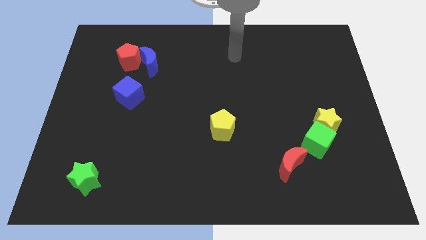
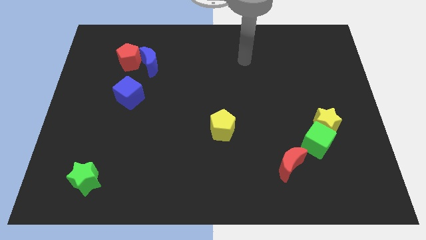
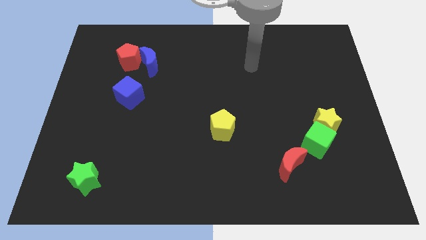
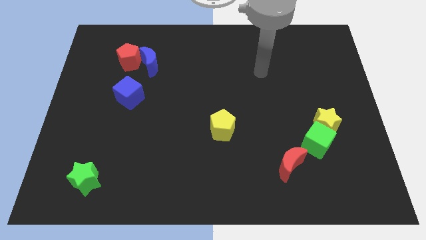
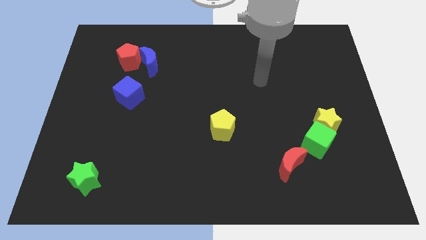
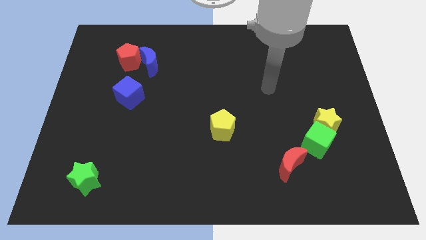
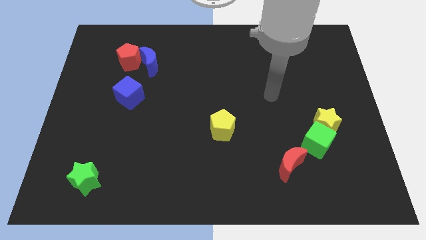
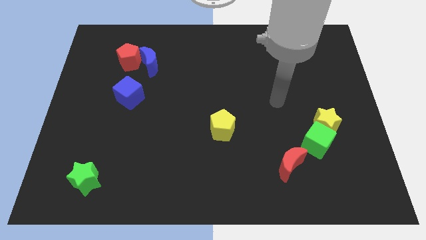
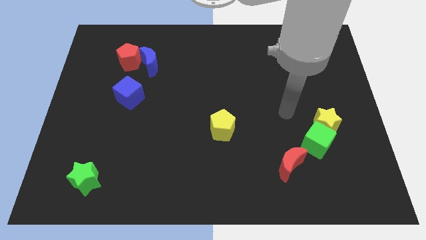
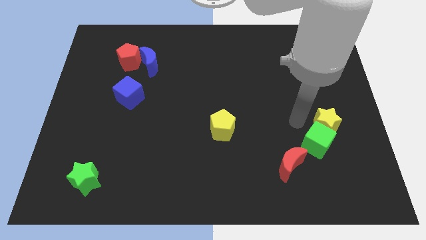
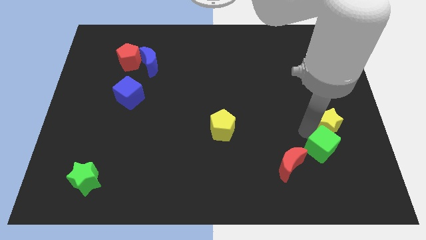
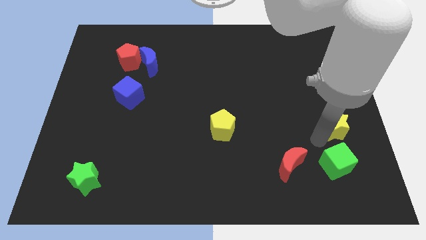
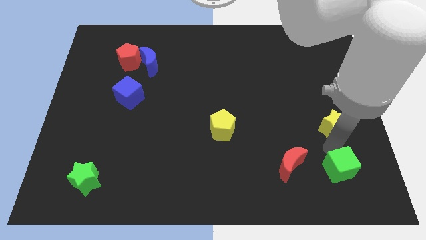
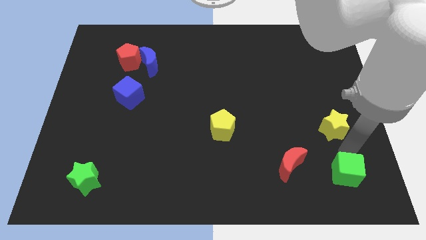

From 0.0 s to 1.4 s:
separate the yellow star from the green cube

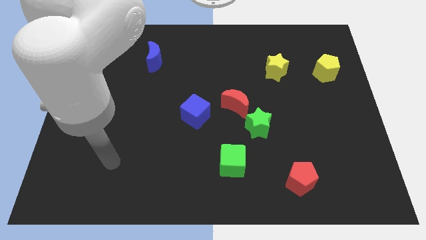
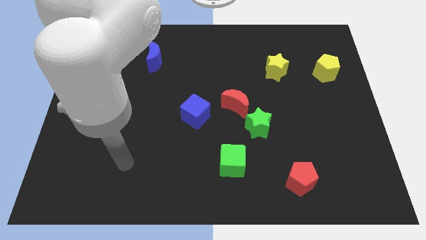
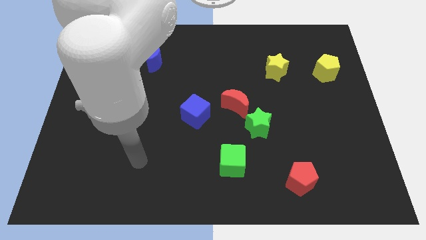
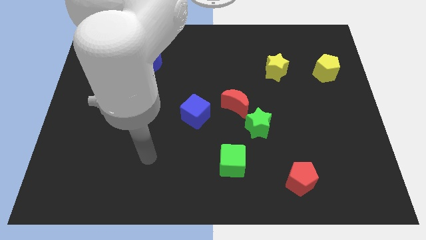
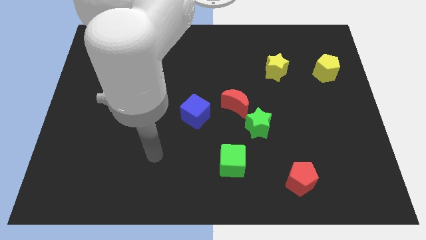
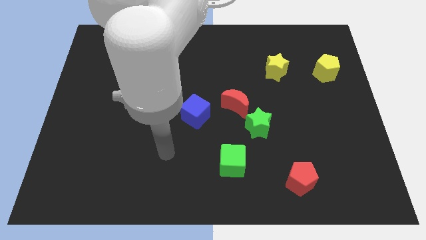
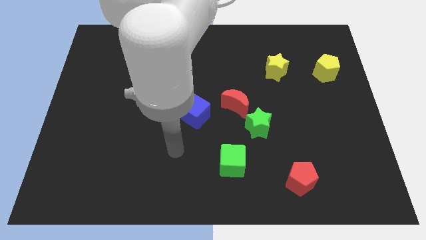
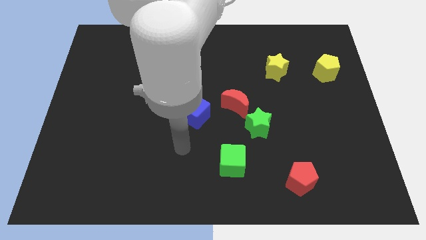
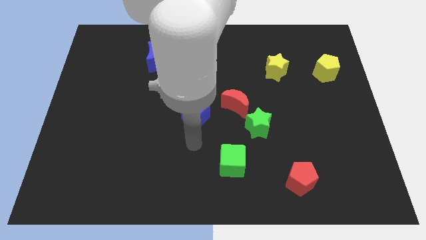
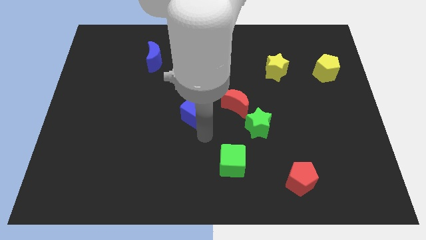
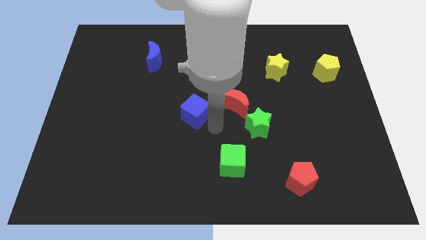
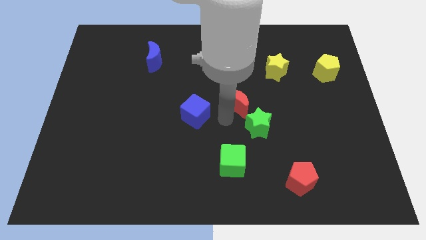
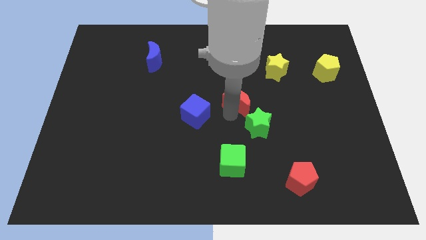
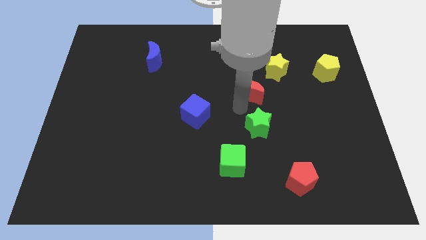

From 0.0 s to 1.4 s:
separate the green star from the red moon

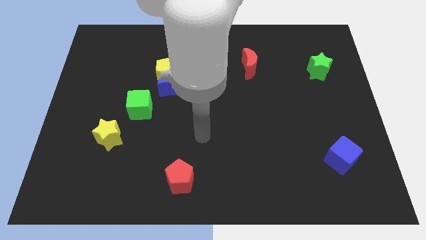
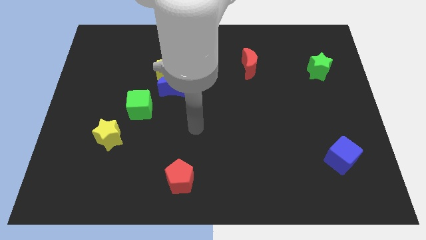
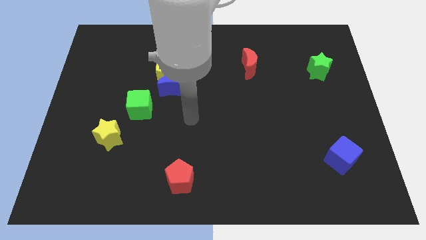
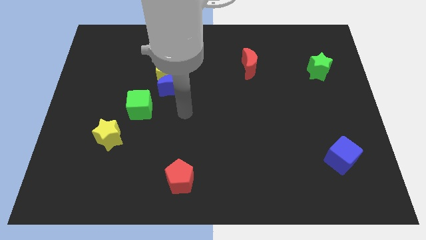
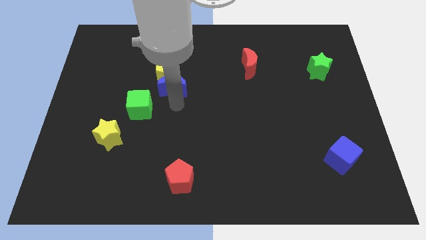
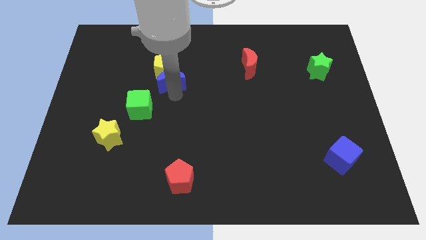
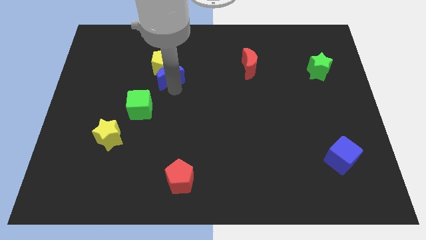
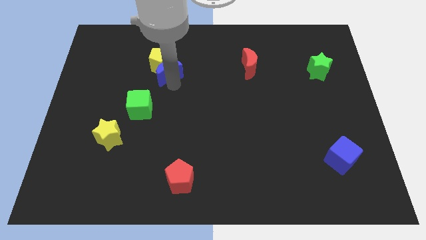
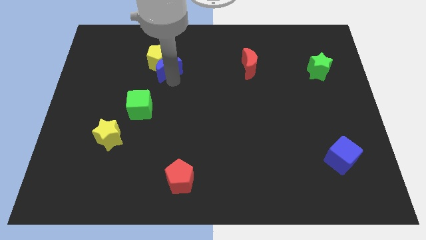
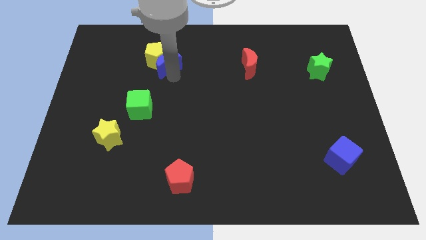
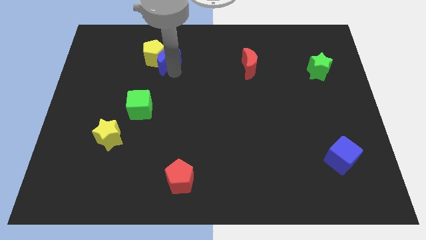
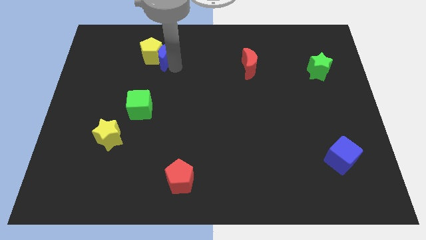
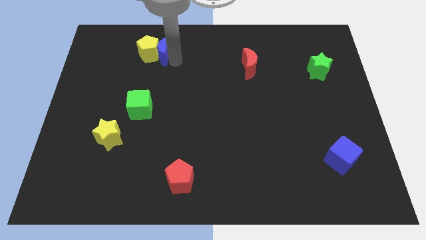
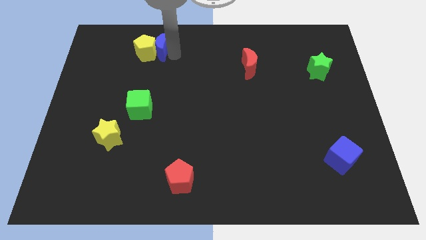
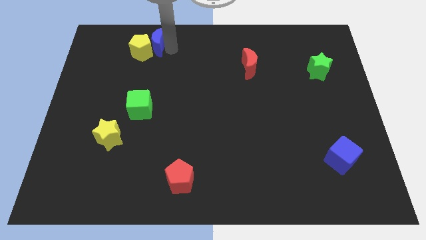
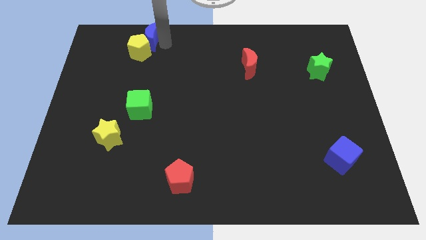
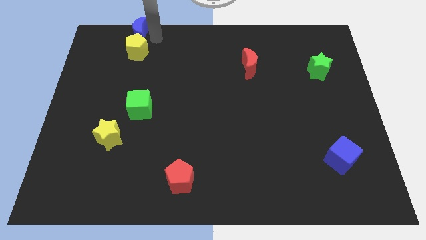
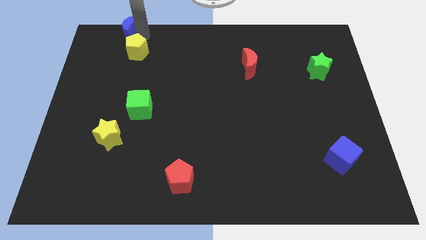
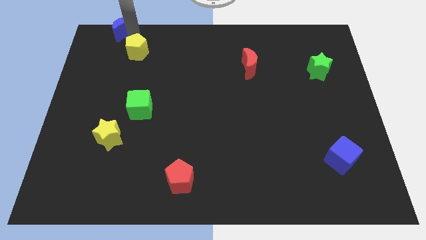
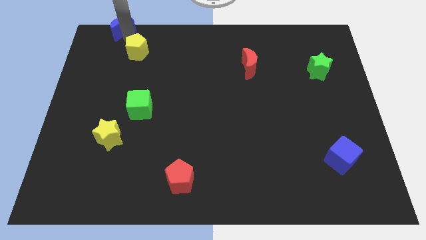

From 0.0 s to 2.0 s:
separate the yellow pentagon from the blue moon

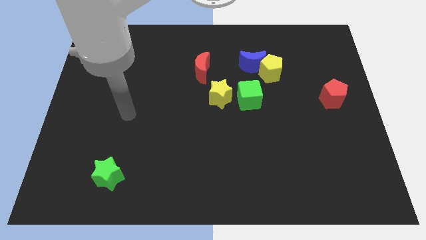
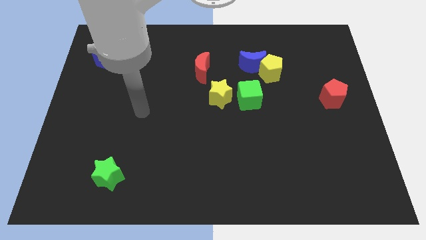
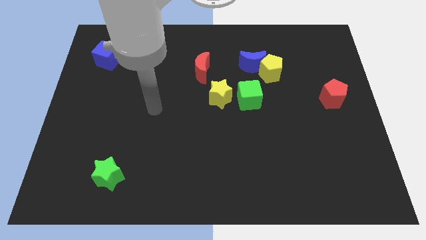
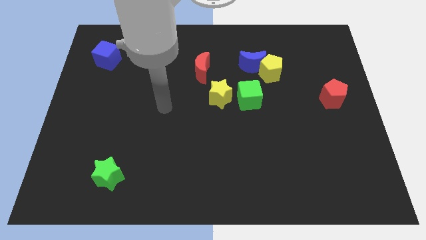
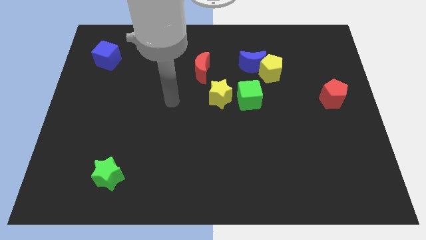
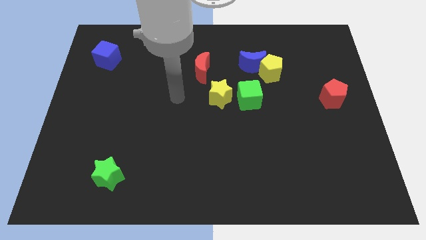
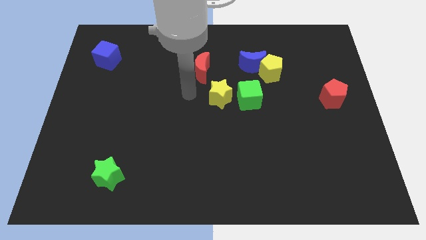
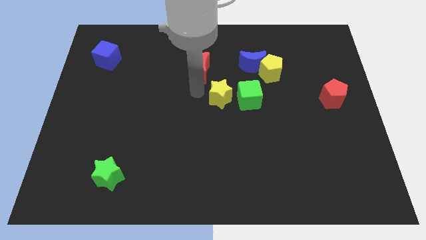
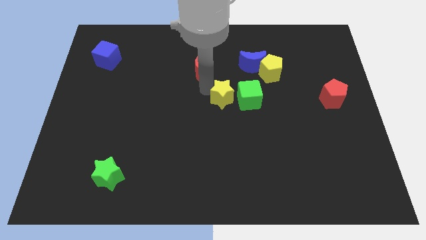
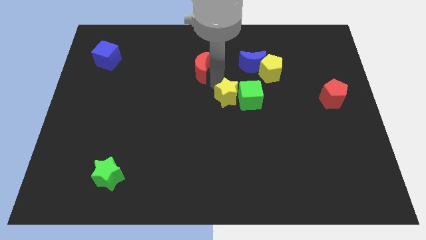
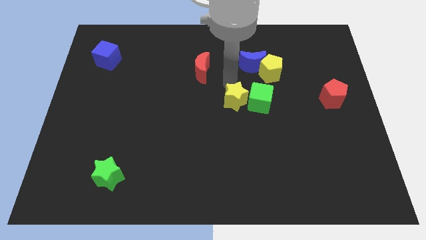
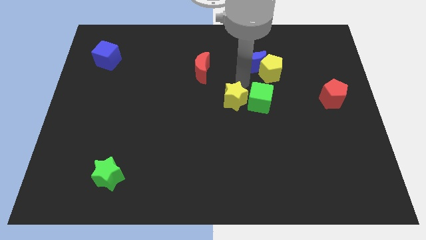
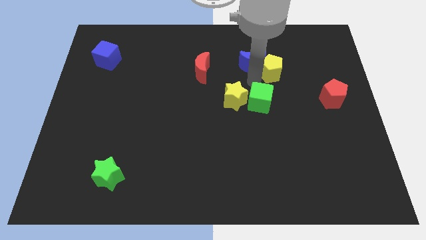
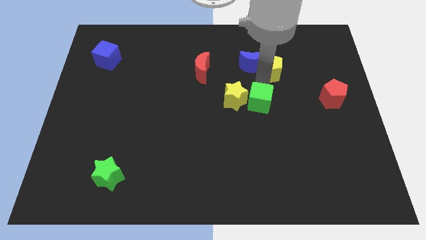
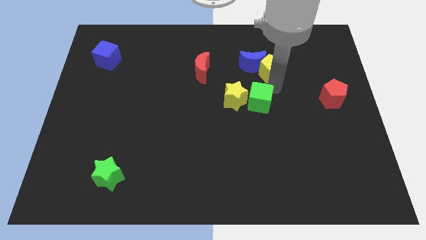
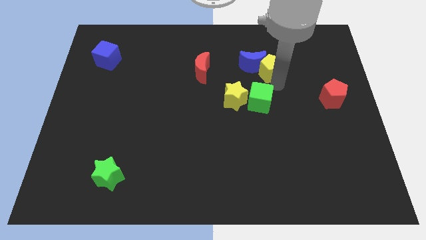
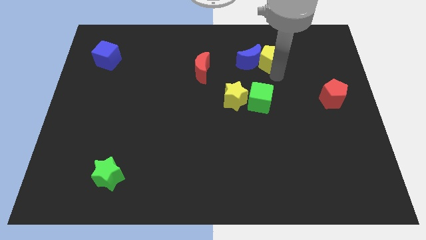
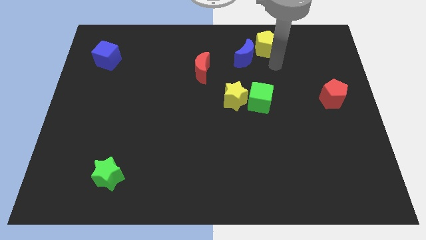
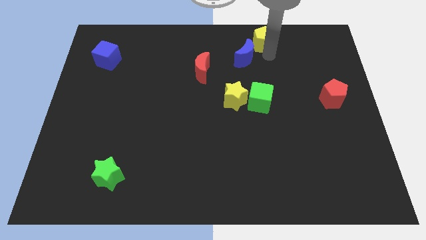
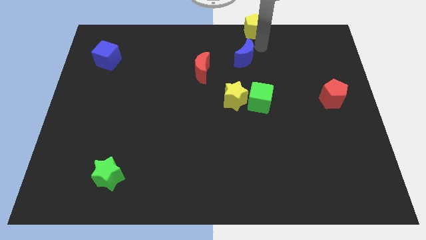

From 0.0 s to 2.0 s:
move the blue moon away from the yellow pentagon

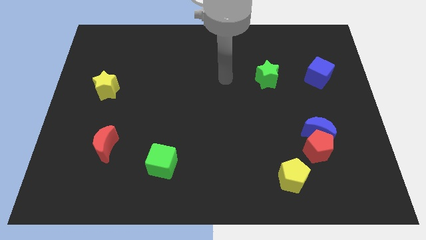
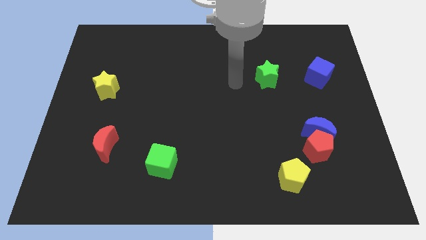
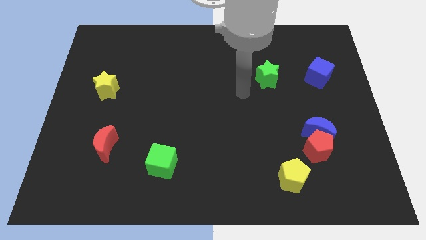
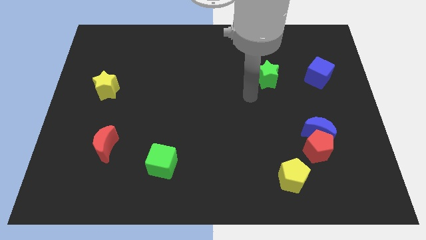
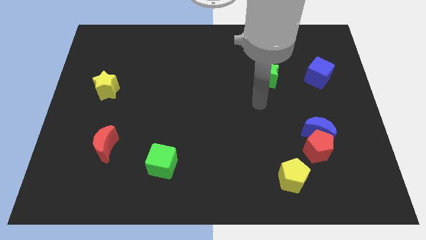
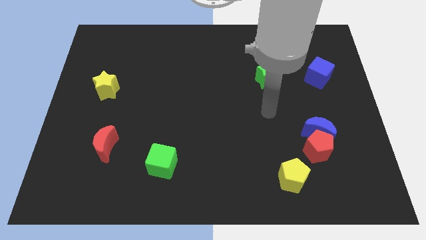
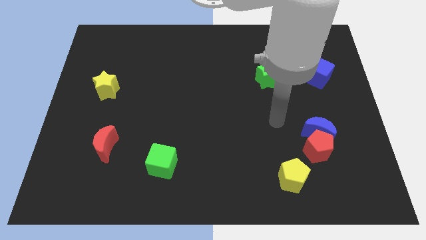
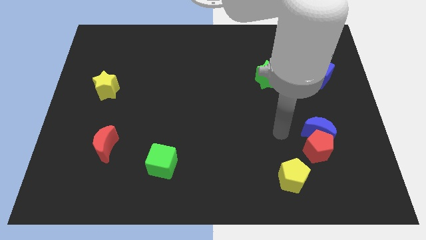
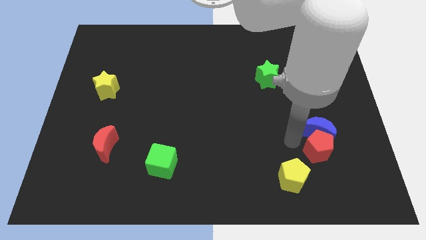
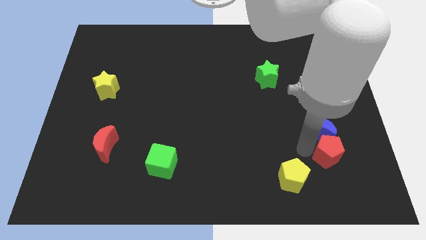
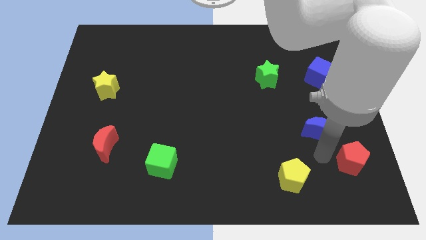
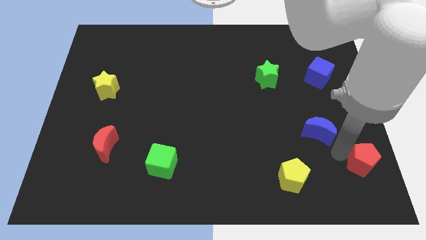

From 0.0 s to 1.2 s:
separate the blue moon from the red pentagon

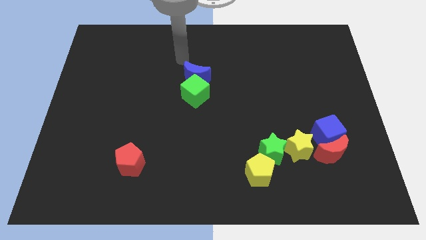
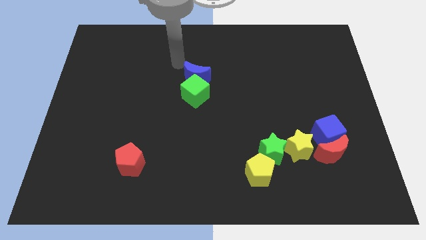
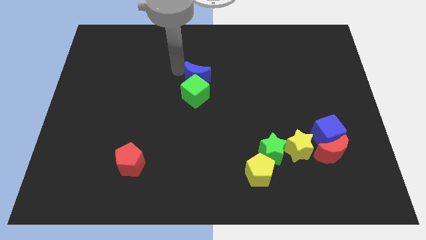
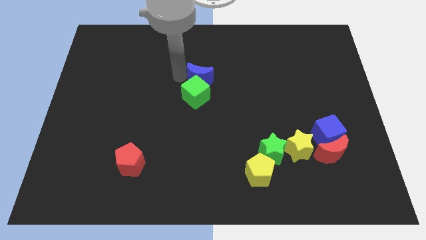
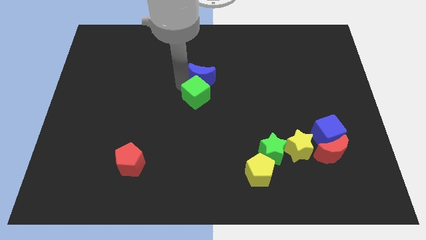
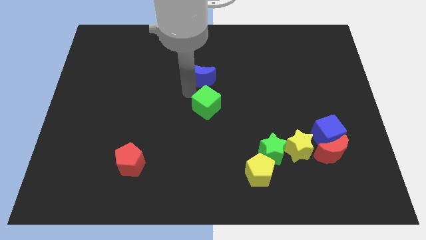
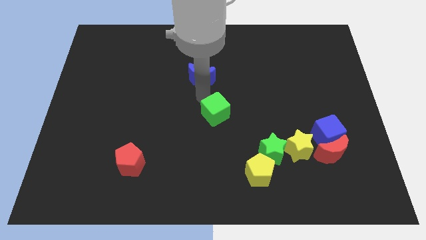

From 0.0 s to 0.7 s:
separate the blue moon from the green cube

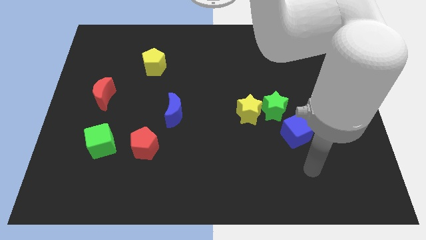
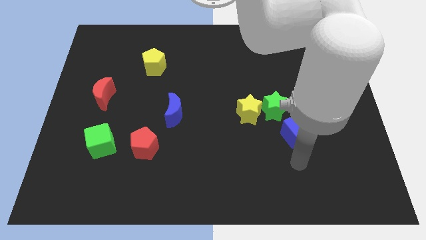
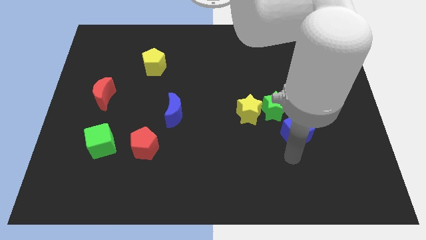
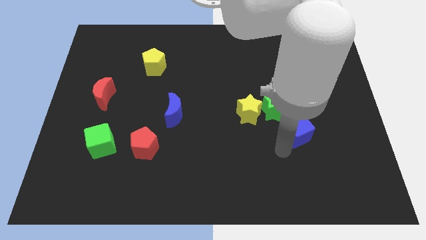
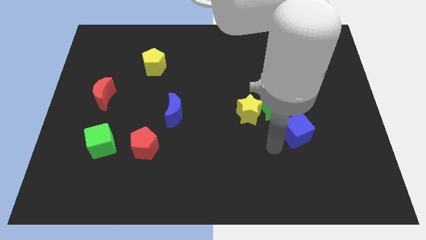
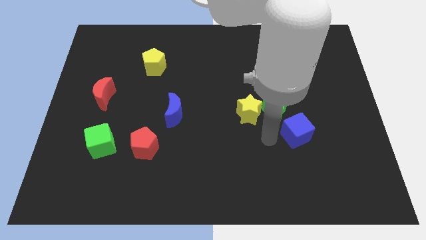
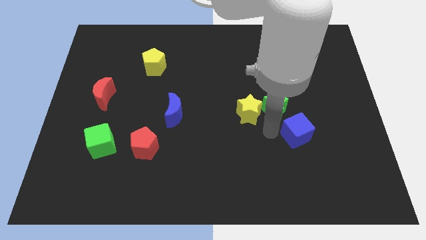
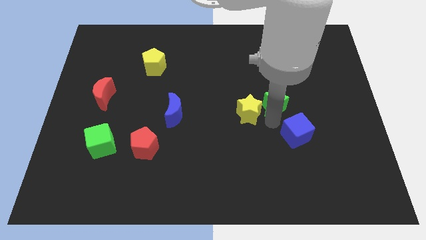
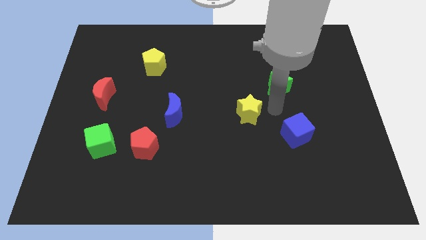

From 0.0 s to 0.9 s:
move the yellow star away from the green star
